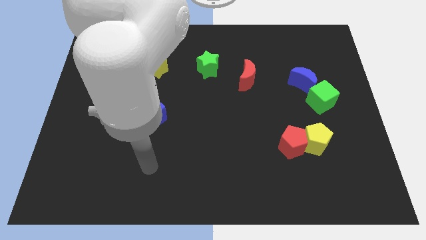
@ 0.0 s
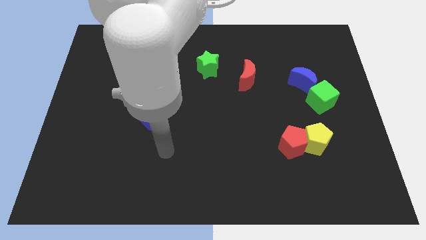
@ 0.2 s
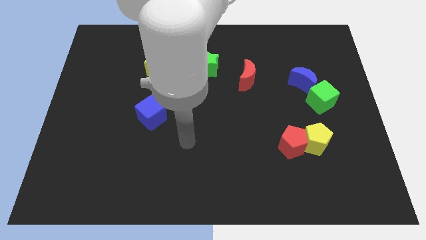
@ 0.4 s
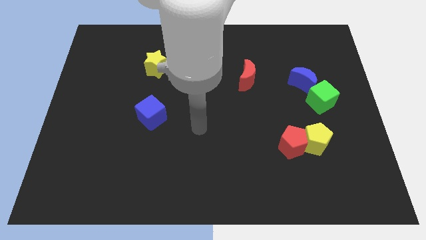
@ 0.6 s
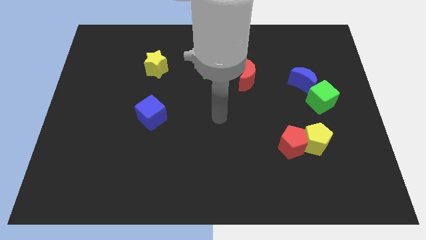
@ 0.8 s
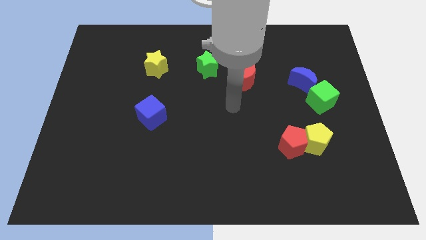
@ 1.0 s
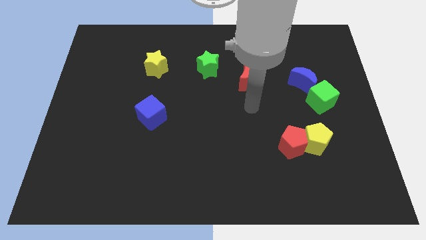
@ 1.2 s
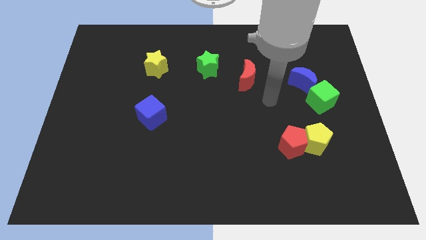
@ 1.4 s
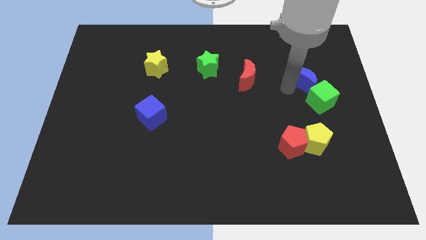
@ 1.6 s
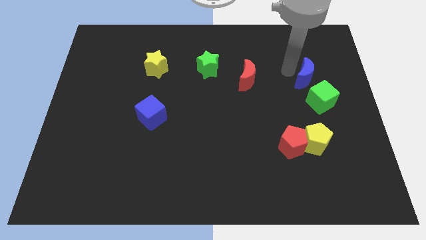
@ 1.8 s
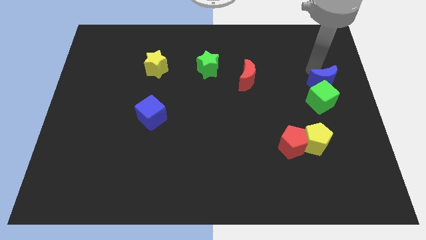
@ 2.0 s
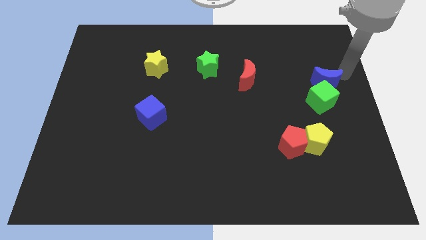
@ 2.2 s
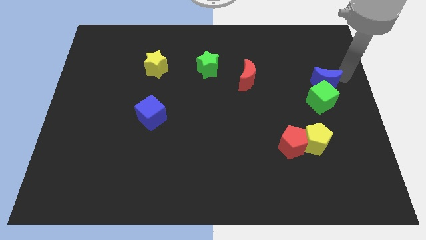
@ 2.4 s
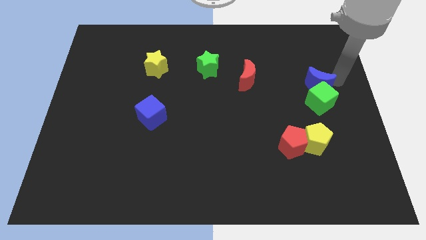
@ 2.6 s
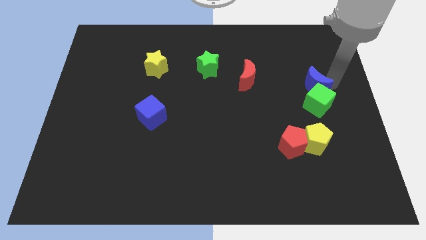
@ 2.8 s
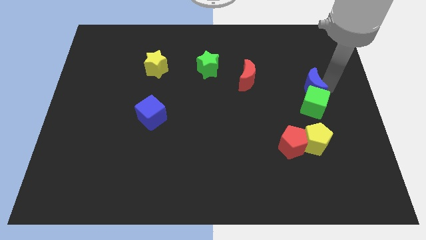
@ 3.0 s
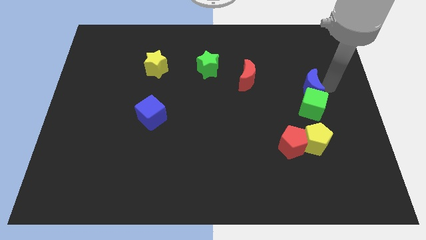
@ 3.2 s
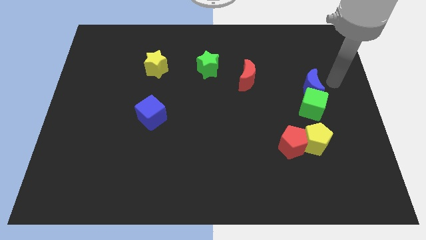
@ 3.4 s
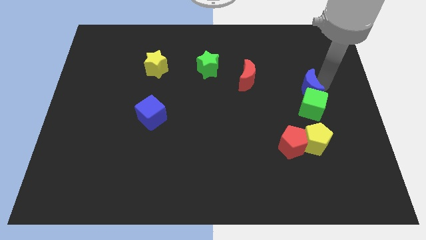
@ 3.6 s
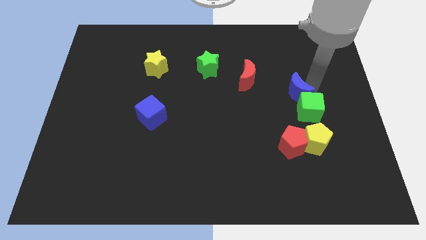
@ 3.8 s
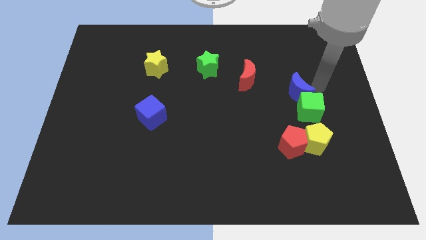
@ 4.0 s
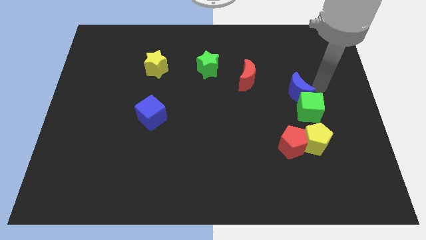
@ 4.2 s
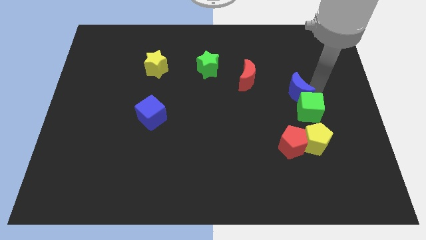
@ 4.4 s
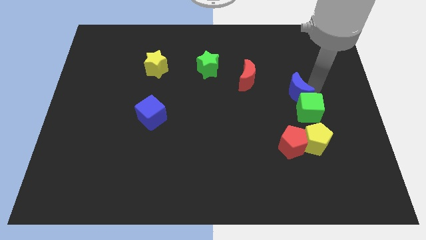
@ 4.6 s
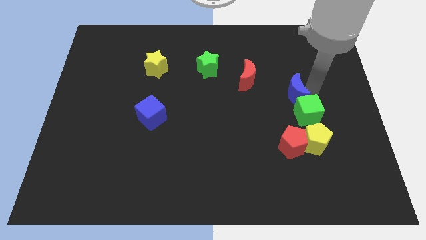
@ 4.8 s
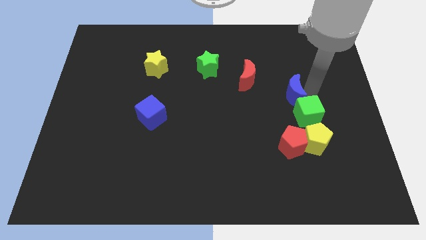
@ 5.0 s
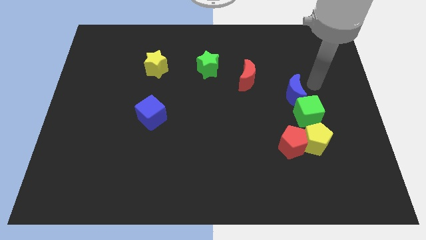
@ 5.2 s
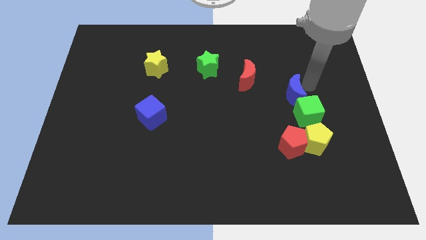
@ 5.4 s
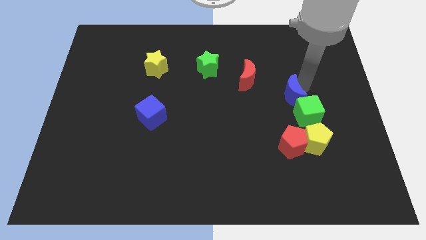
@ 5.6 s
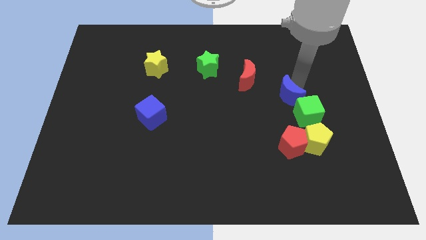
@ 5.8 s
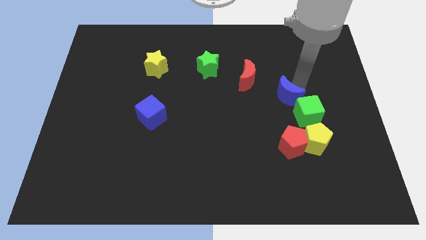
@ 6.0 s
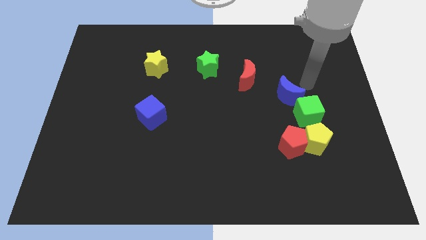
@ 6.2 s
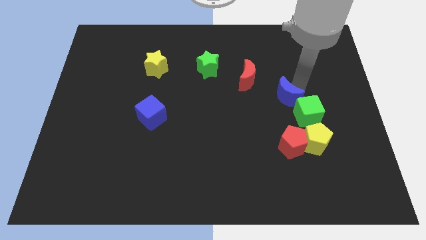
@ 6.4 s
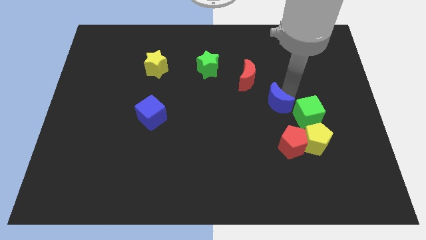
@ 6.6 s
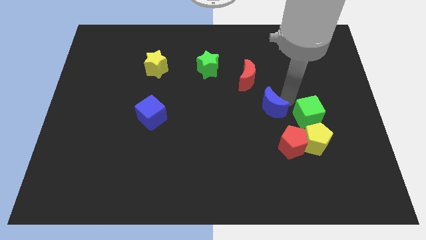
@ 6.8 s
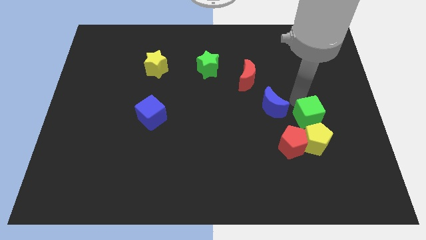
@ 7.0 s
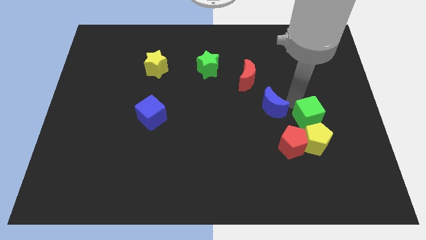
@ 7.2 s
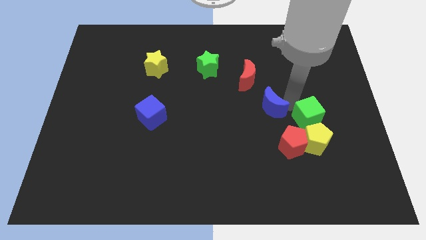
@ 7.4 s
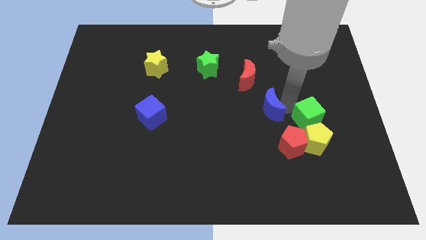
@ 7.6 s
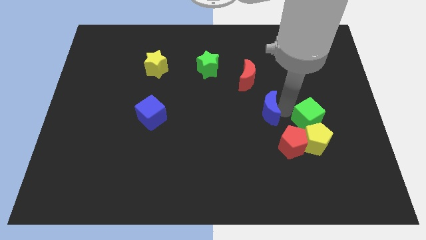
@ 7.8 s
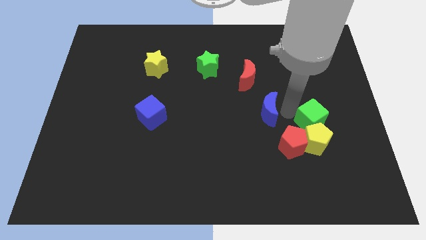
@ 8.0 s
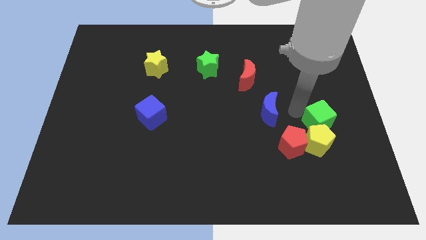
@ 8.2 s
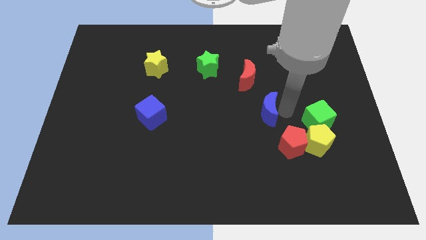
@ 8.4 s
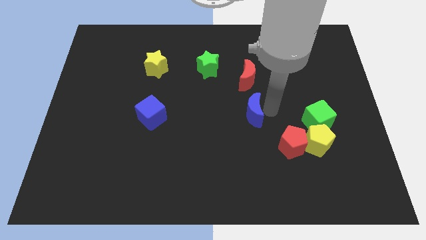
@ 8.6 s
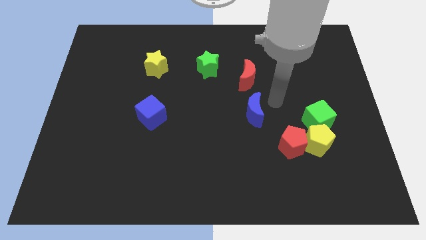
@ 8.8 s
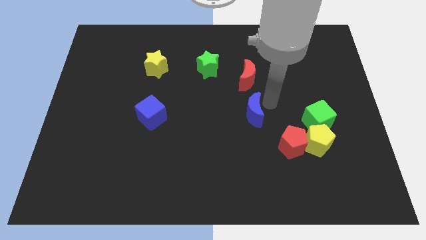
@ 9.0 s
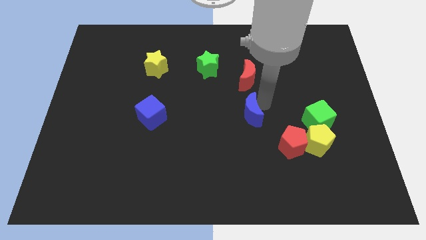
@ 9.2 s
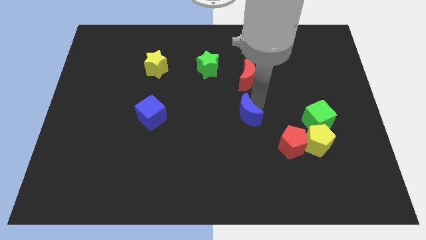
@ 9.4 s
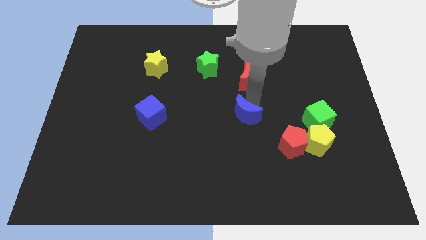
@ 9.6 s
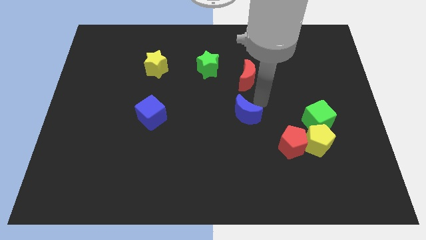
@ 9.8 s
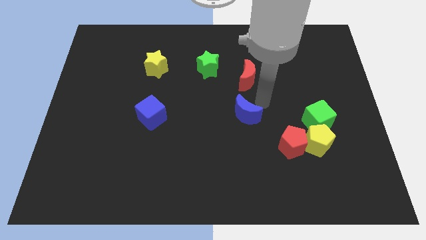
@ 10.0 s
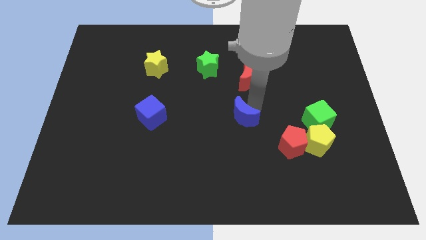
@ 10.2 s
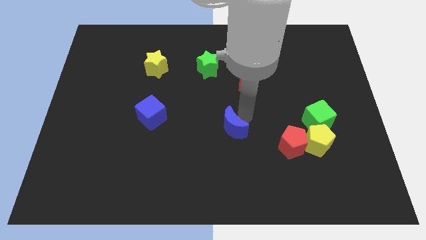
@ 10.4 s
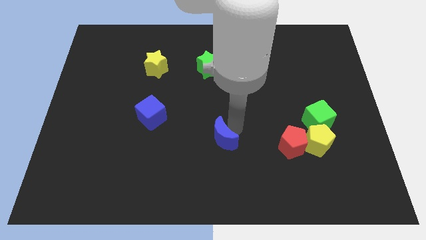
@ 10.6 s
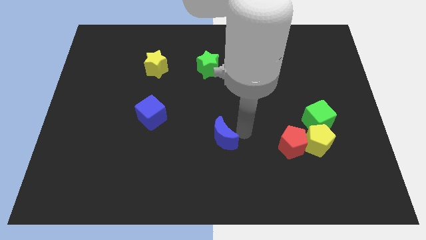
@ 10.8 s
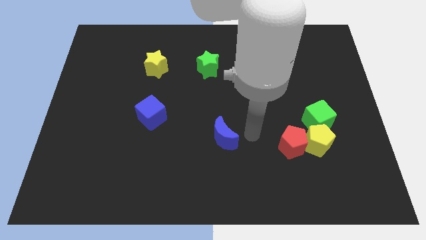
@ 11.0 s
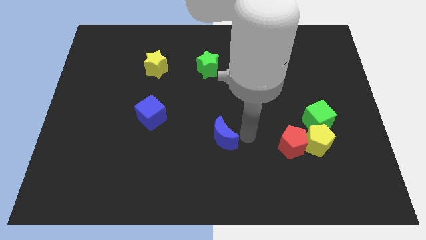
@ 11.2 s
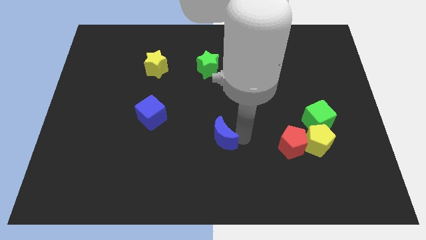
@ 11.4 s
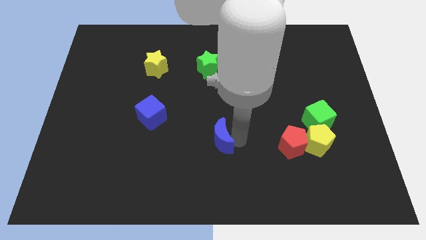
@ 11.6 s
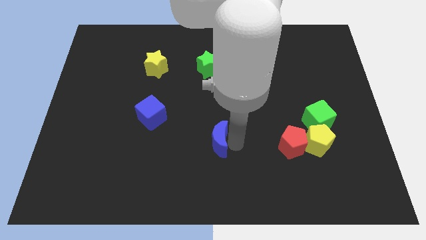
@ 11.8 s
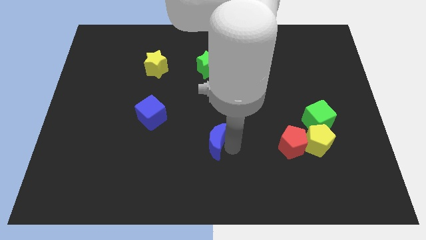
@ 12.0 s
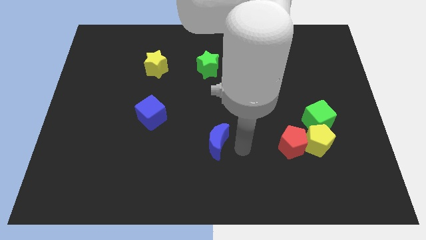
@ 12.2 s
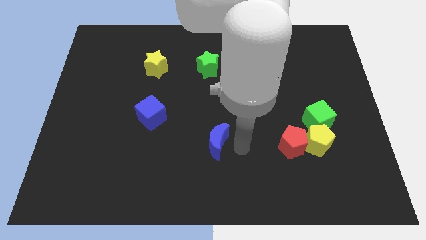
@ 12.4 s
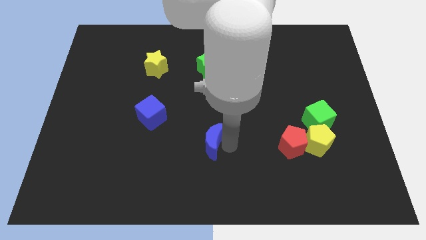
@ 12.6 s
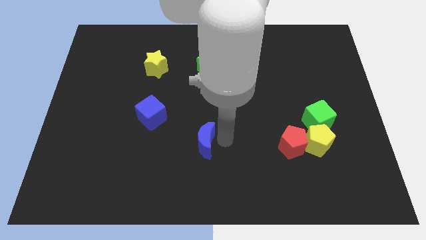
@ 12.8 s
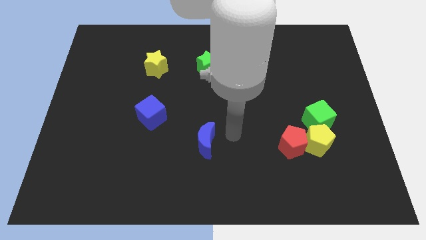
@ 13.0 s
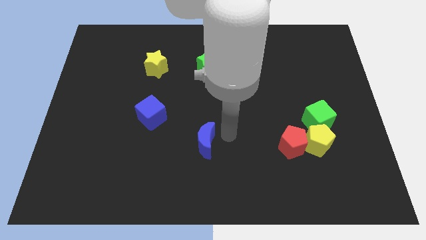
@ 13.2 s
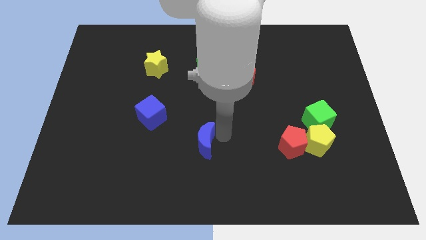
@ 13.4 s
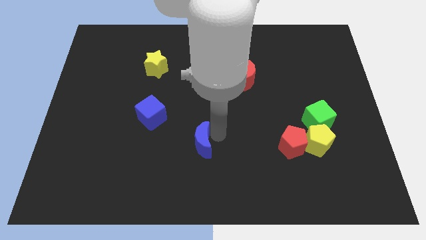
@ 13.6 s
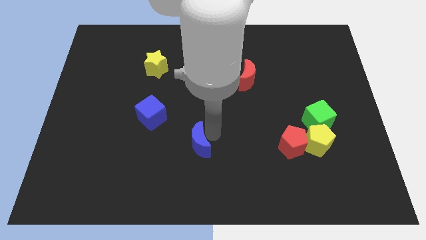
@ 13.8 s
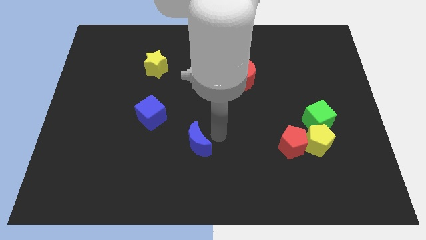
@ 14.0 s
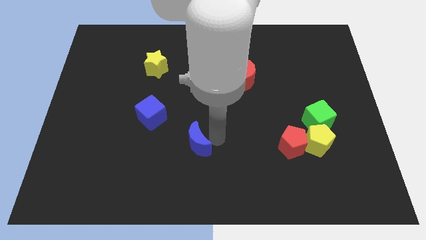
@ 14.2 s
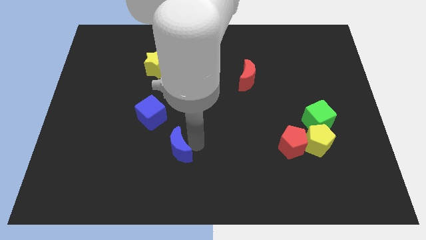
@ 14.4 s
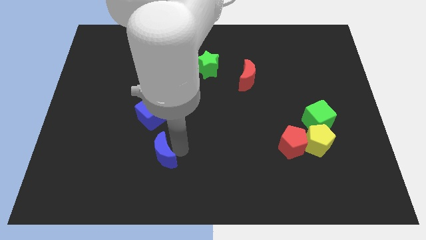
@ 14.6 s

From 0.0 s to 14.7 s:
push the blue moon to the bottom of the blue cube
